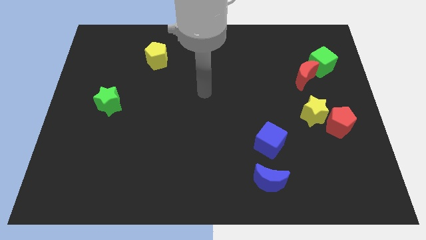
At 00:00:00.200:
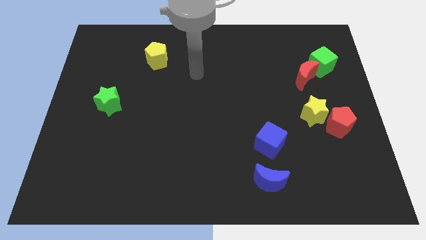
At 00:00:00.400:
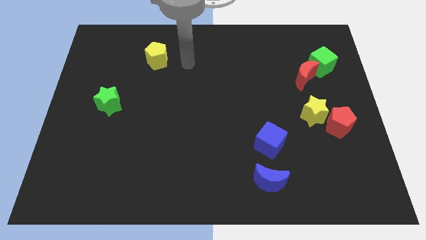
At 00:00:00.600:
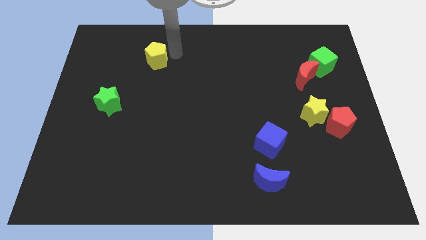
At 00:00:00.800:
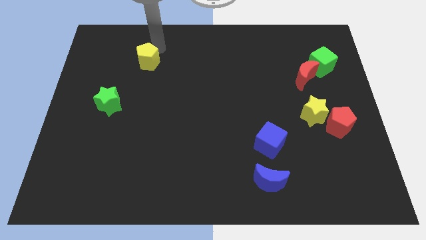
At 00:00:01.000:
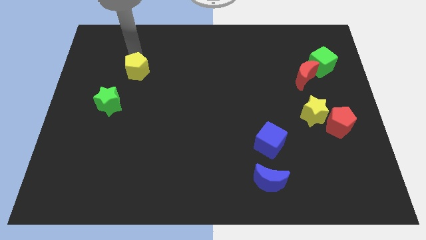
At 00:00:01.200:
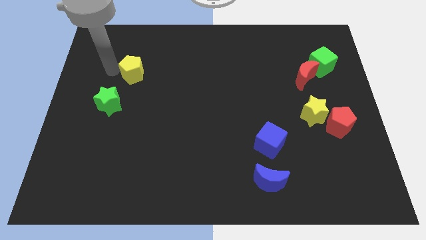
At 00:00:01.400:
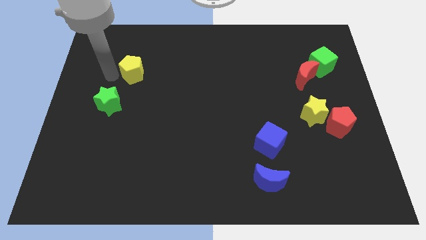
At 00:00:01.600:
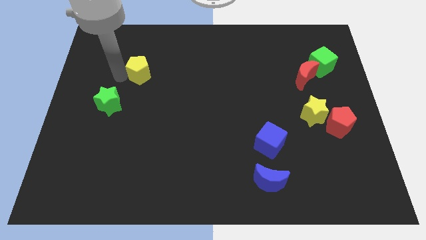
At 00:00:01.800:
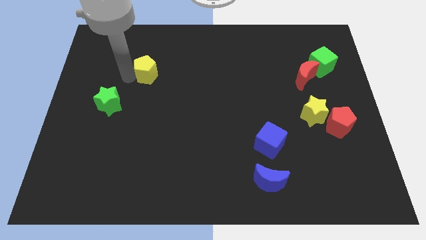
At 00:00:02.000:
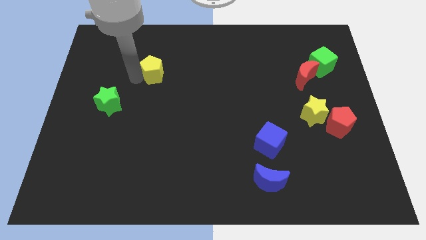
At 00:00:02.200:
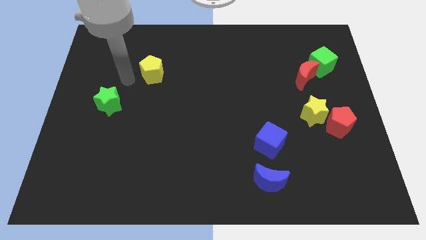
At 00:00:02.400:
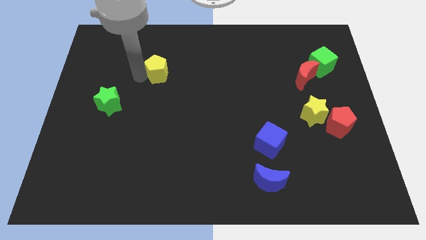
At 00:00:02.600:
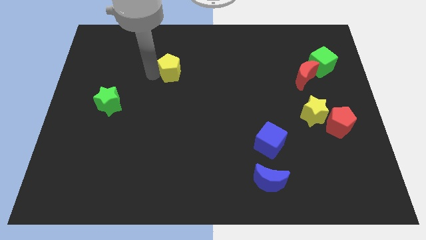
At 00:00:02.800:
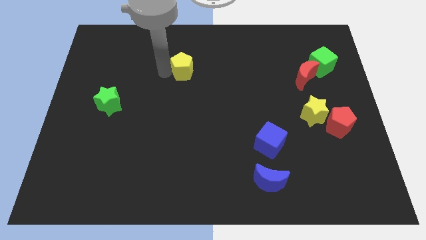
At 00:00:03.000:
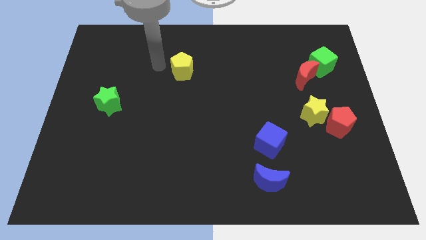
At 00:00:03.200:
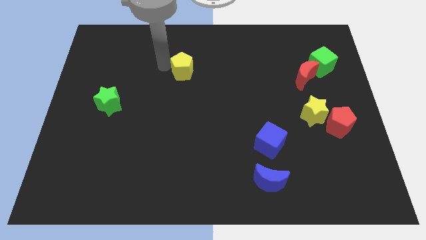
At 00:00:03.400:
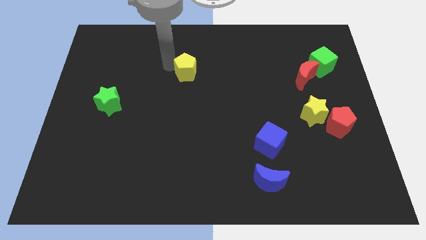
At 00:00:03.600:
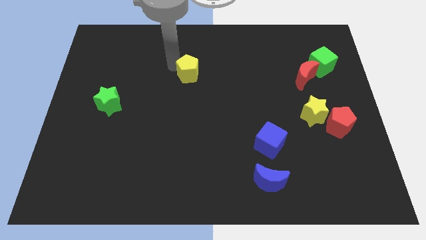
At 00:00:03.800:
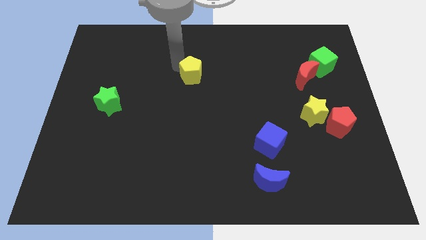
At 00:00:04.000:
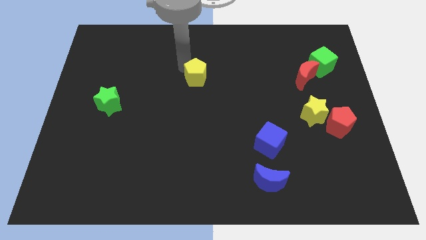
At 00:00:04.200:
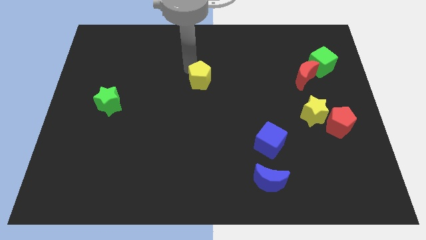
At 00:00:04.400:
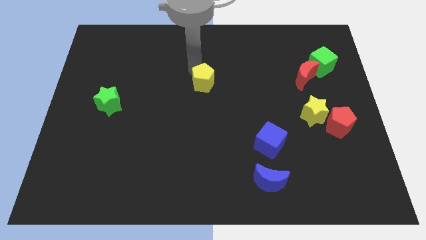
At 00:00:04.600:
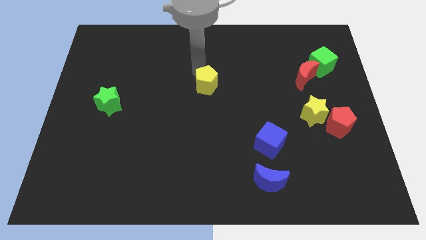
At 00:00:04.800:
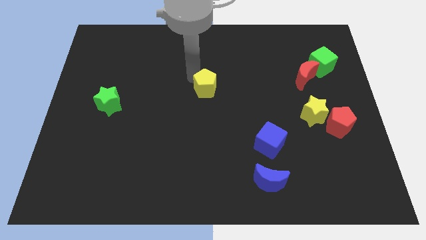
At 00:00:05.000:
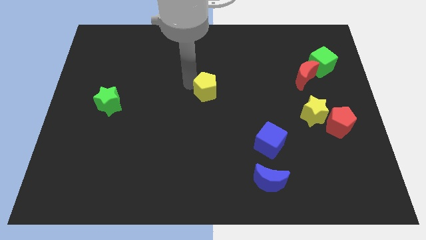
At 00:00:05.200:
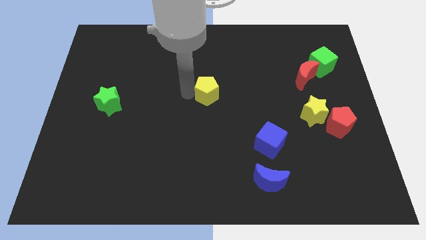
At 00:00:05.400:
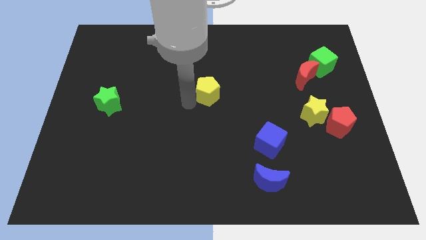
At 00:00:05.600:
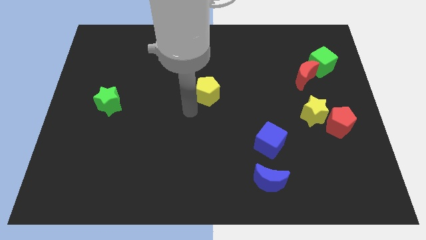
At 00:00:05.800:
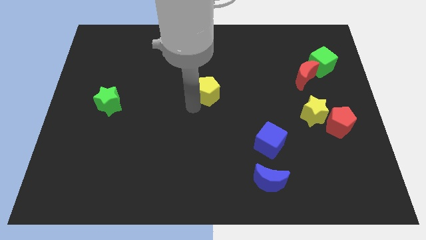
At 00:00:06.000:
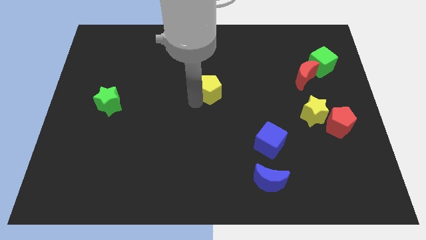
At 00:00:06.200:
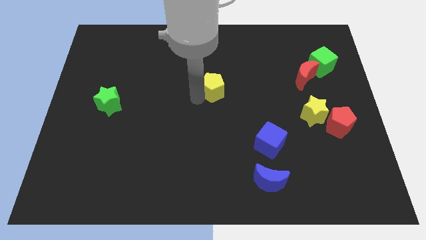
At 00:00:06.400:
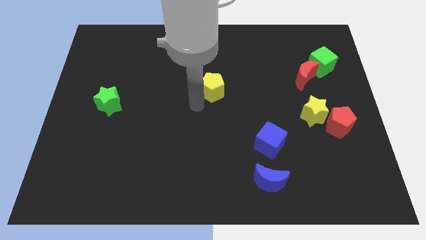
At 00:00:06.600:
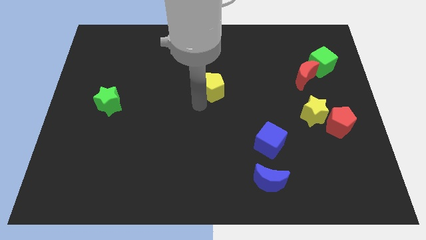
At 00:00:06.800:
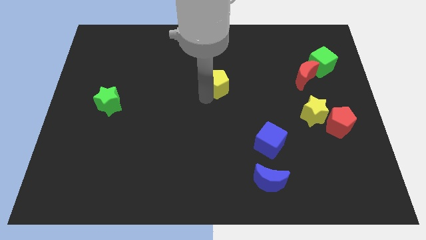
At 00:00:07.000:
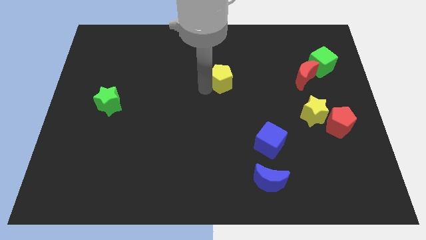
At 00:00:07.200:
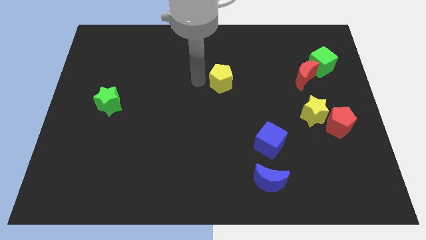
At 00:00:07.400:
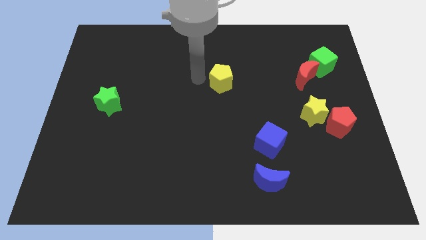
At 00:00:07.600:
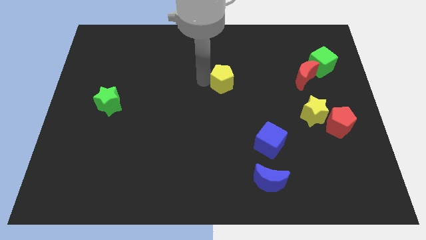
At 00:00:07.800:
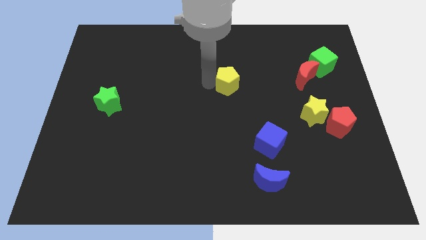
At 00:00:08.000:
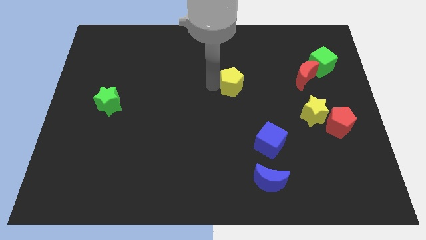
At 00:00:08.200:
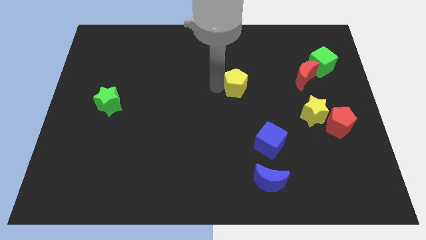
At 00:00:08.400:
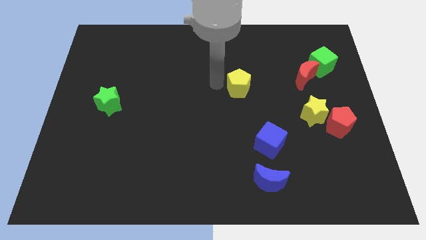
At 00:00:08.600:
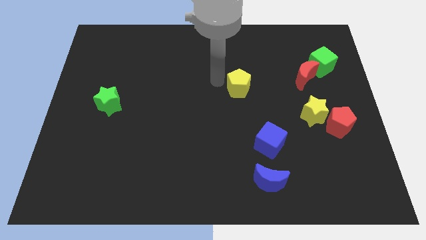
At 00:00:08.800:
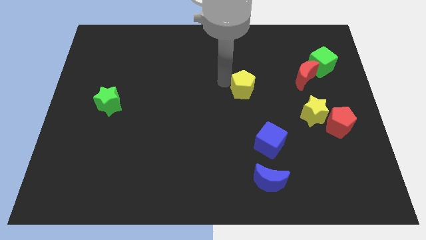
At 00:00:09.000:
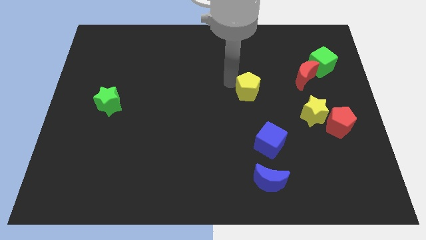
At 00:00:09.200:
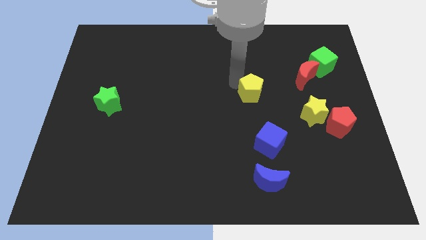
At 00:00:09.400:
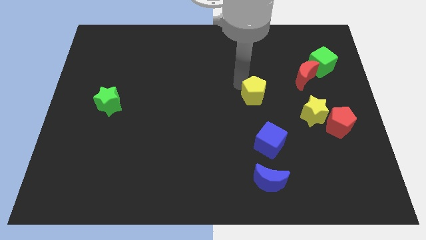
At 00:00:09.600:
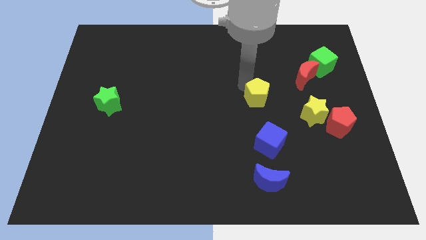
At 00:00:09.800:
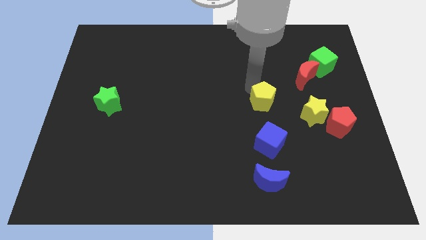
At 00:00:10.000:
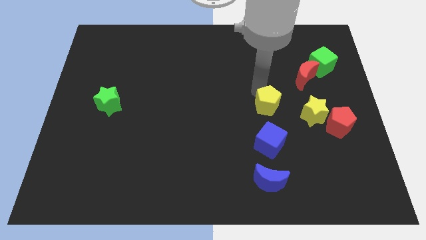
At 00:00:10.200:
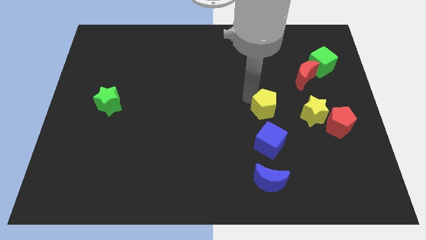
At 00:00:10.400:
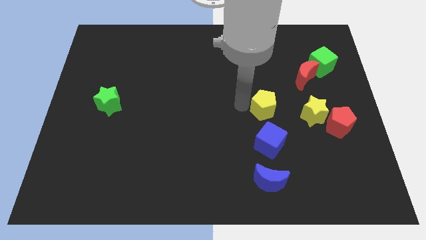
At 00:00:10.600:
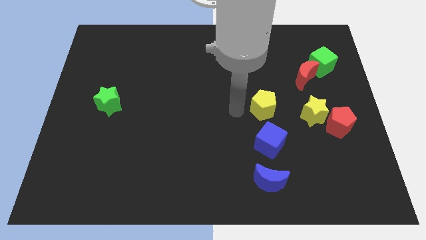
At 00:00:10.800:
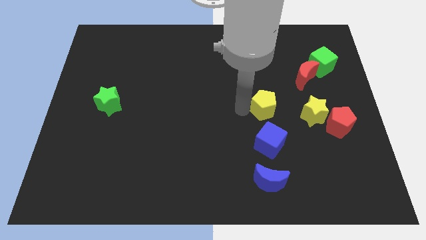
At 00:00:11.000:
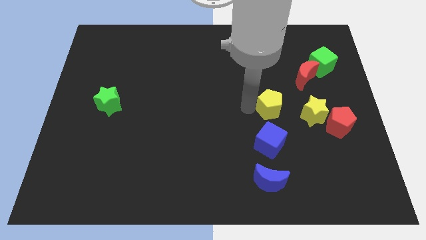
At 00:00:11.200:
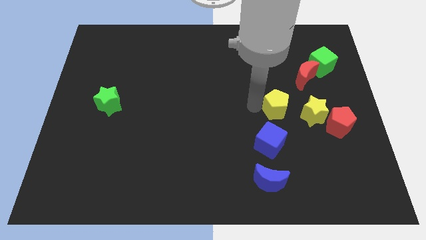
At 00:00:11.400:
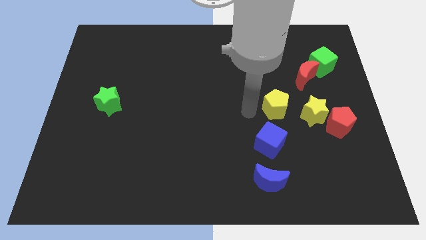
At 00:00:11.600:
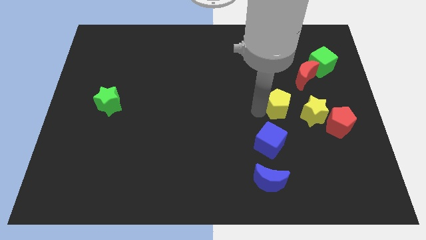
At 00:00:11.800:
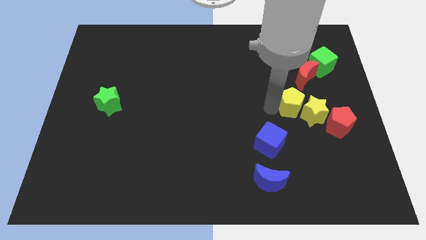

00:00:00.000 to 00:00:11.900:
put the yellow pentagon close to the yellow star
